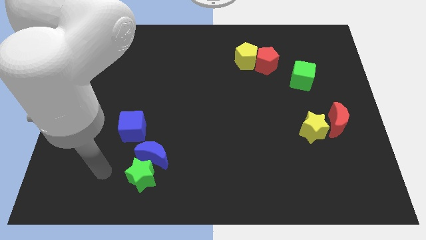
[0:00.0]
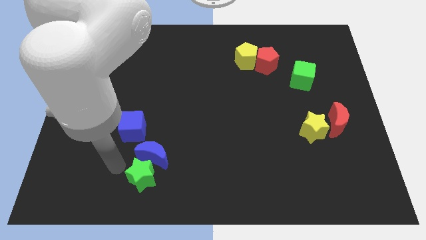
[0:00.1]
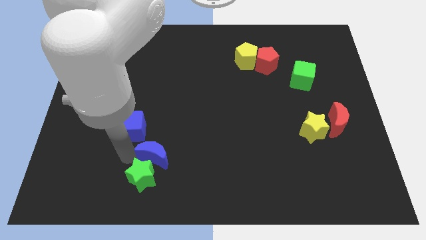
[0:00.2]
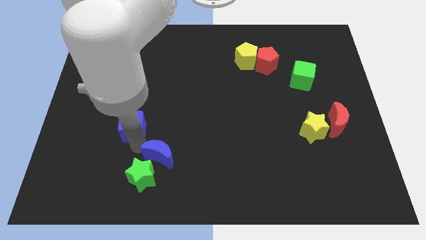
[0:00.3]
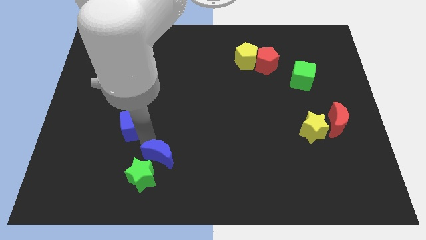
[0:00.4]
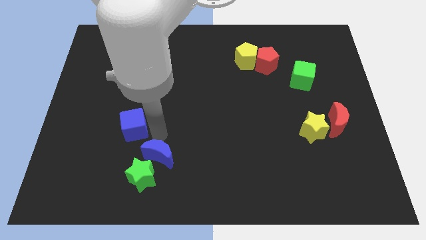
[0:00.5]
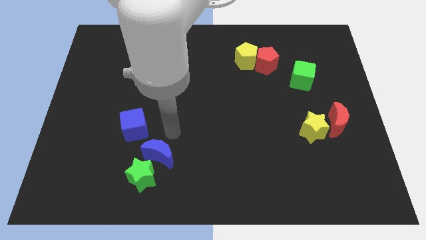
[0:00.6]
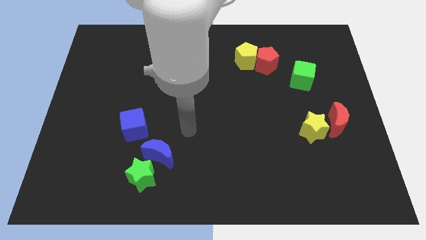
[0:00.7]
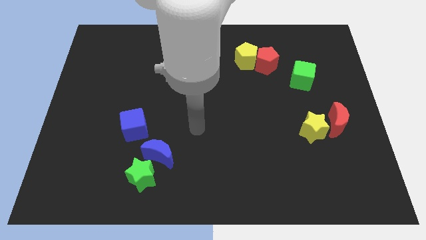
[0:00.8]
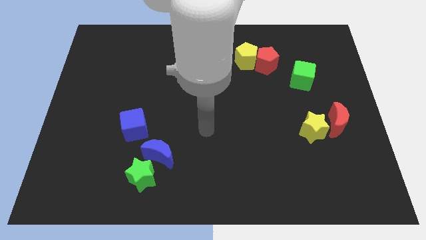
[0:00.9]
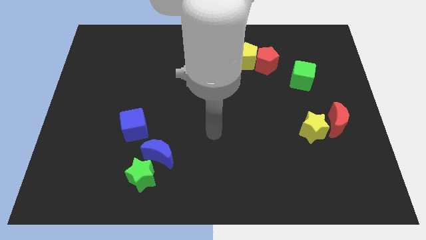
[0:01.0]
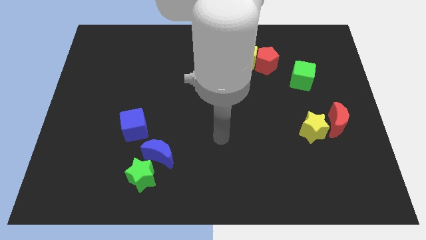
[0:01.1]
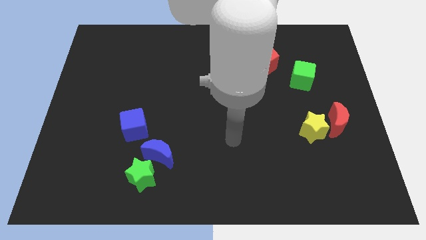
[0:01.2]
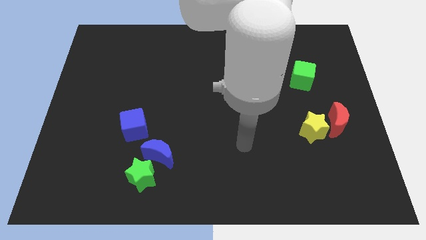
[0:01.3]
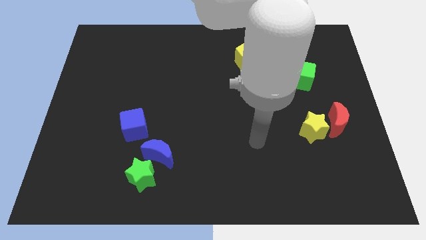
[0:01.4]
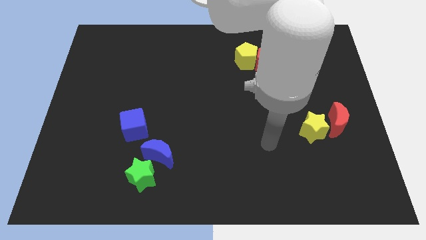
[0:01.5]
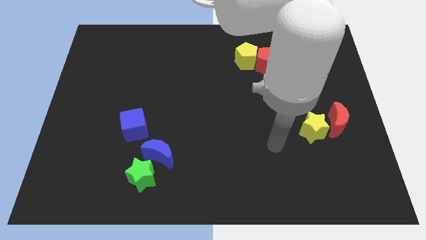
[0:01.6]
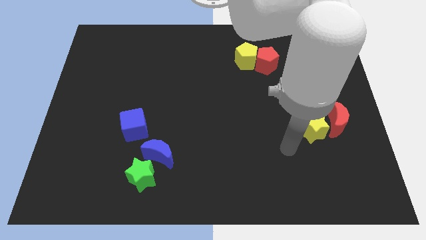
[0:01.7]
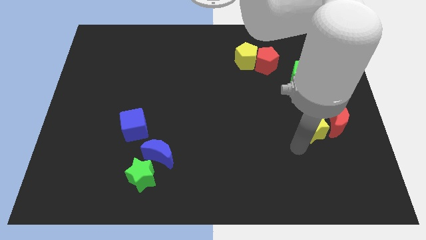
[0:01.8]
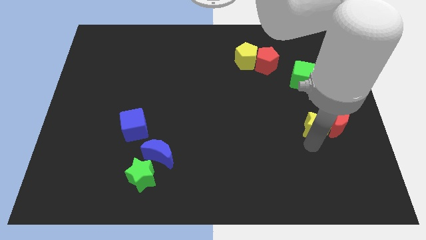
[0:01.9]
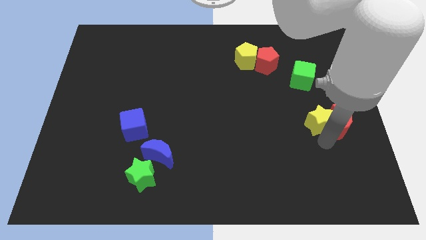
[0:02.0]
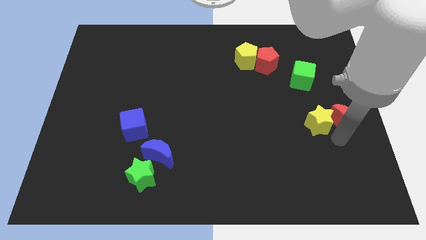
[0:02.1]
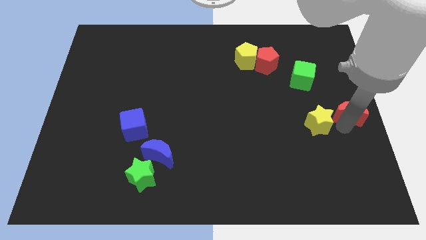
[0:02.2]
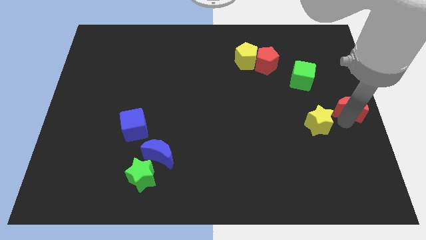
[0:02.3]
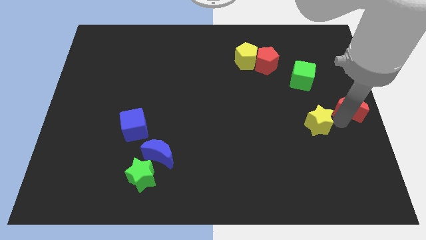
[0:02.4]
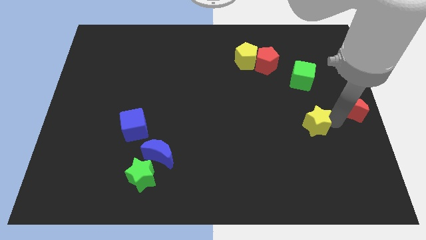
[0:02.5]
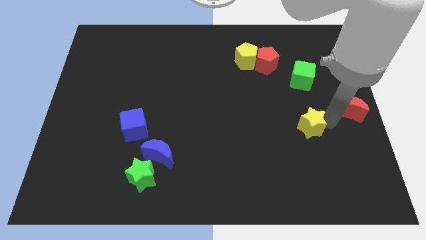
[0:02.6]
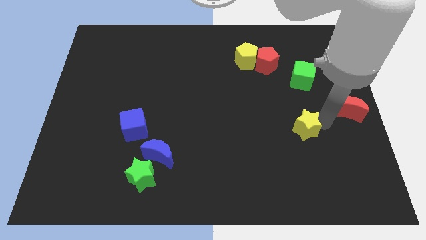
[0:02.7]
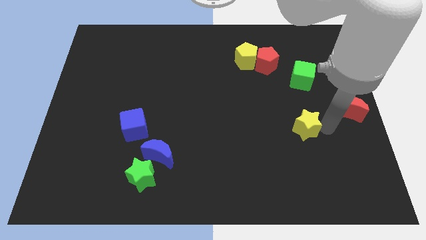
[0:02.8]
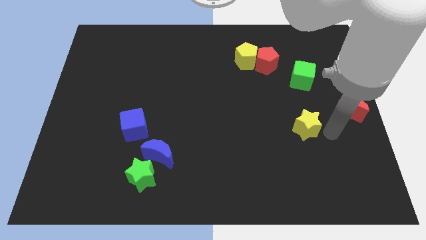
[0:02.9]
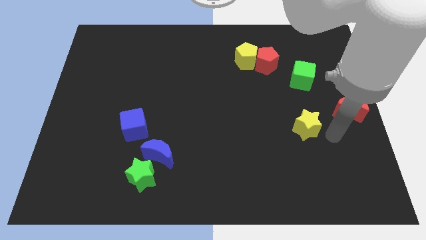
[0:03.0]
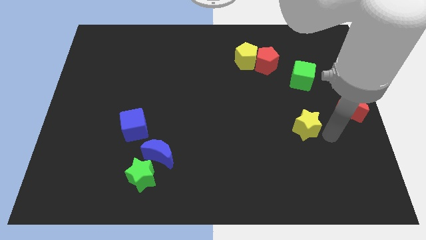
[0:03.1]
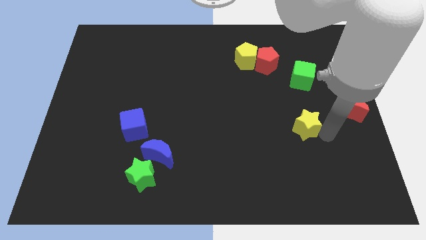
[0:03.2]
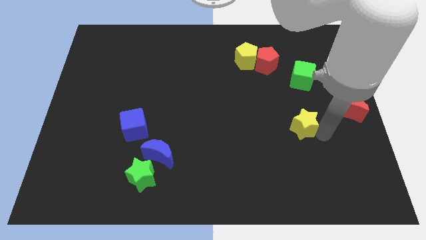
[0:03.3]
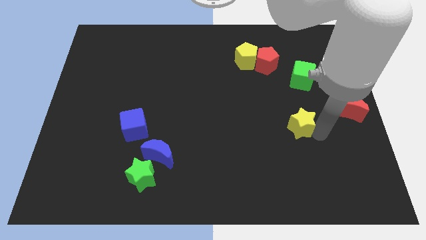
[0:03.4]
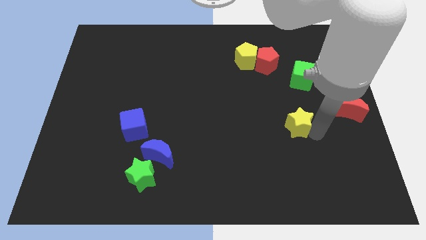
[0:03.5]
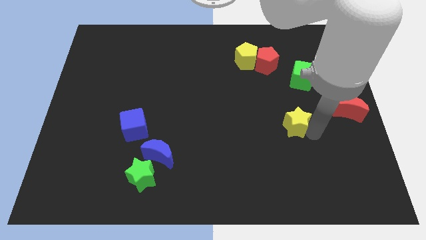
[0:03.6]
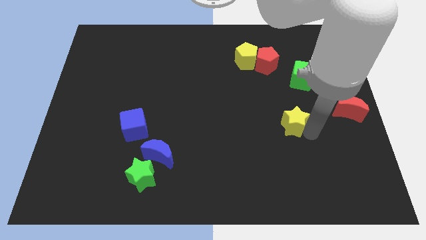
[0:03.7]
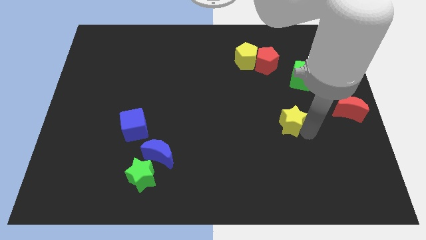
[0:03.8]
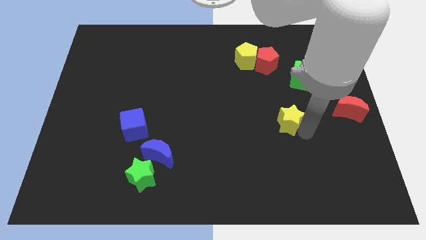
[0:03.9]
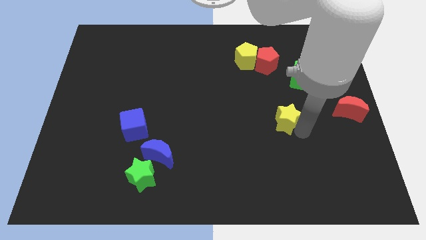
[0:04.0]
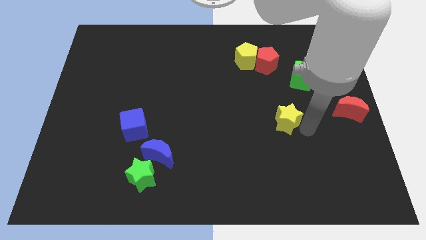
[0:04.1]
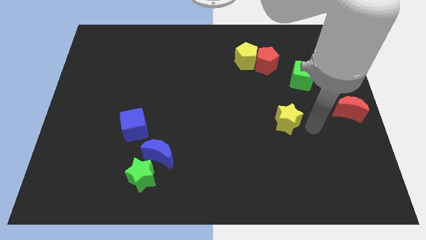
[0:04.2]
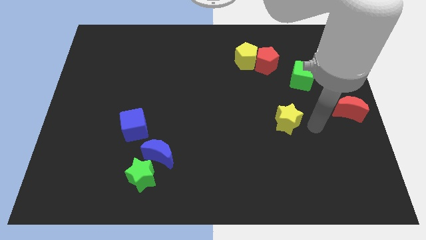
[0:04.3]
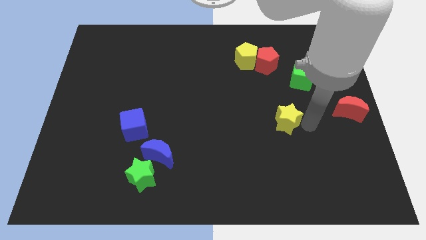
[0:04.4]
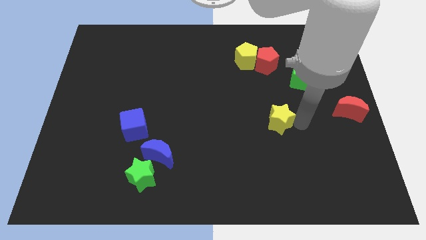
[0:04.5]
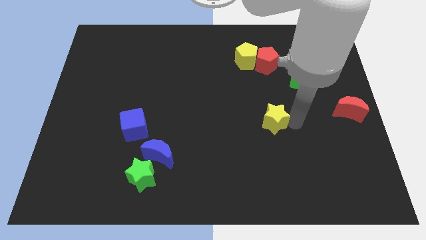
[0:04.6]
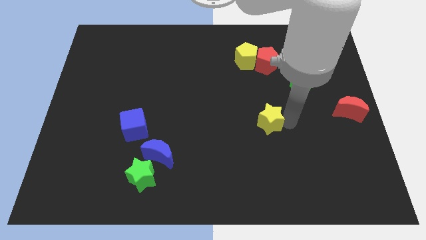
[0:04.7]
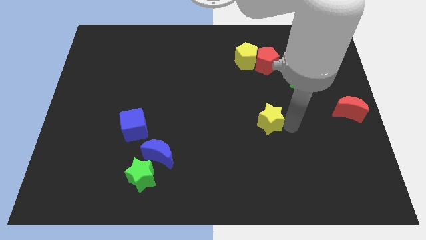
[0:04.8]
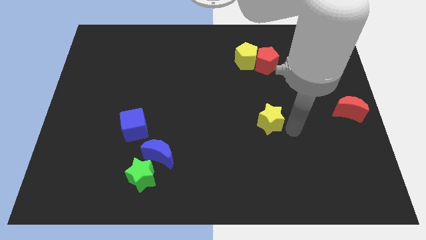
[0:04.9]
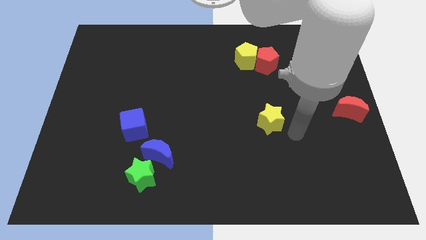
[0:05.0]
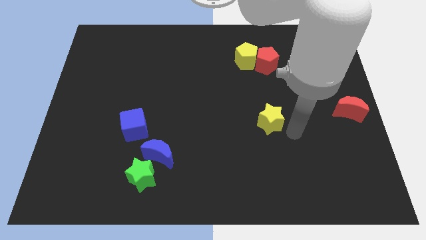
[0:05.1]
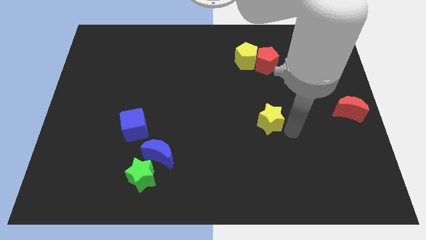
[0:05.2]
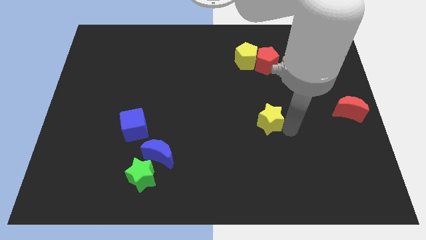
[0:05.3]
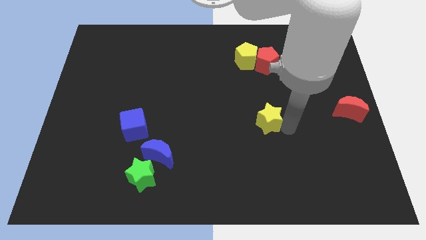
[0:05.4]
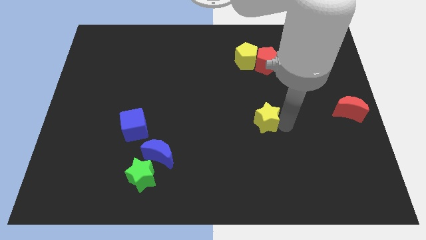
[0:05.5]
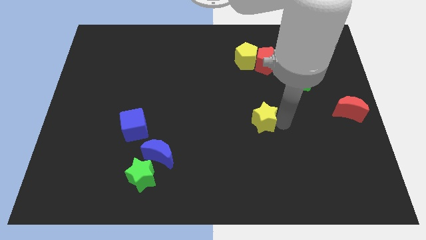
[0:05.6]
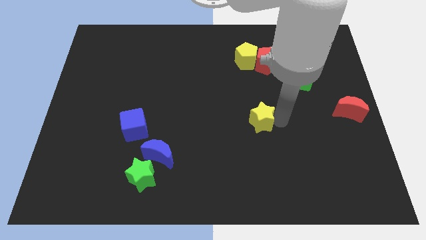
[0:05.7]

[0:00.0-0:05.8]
put the yellow star to the center of the board

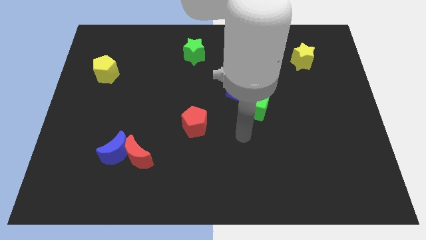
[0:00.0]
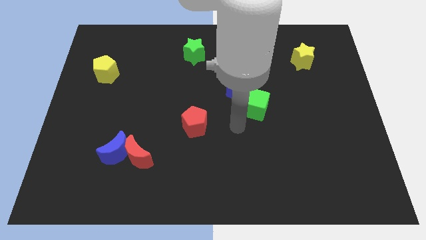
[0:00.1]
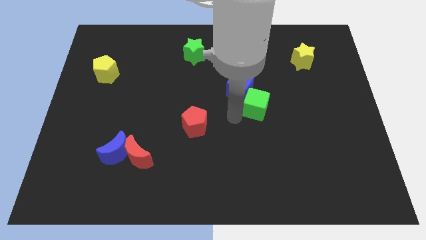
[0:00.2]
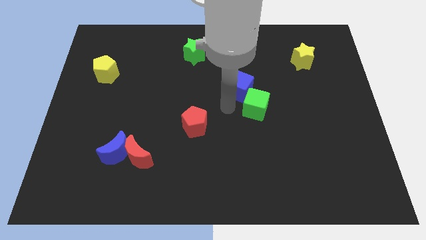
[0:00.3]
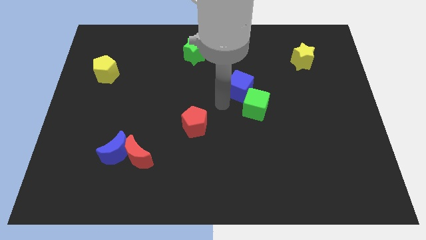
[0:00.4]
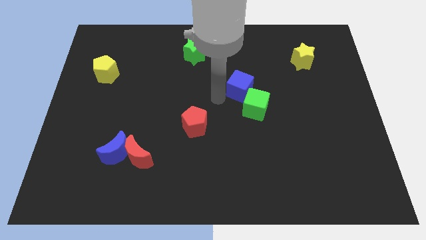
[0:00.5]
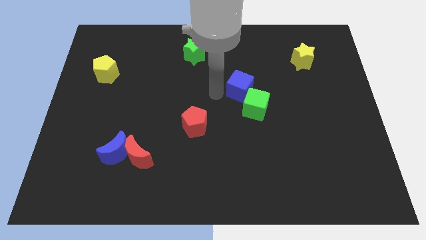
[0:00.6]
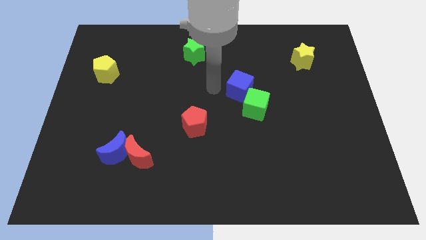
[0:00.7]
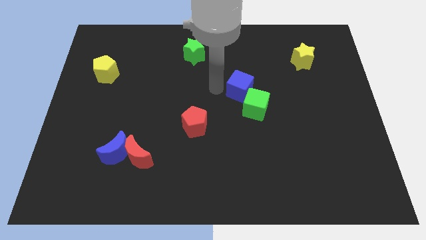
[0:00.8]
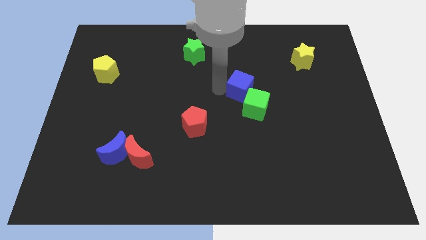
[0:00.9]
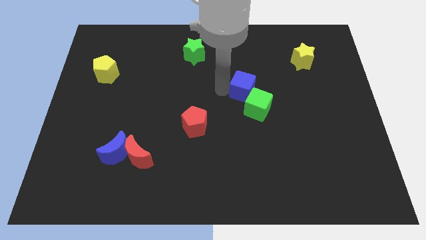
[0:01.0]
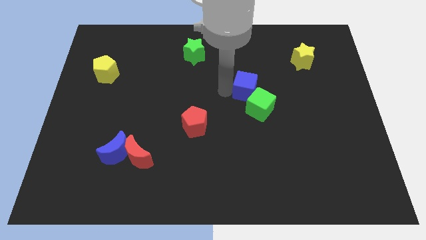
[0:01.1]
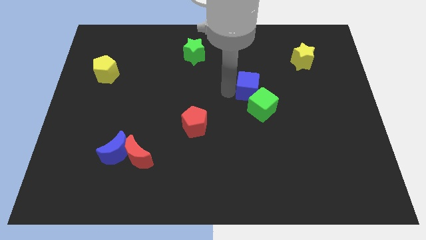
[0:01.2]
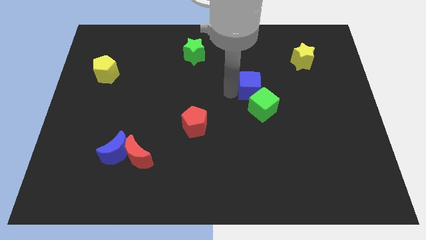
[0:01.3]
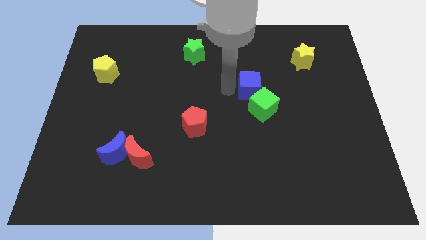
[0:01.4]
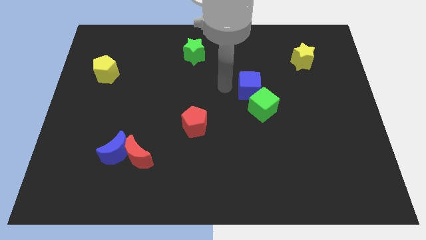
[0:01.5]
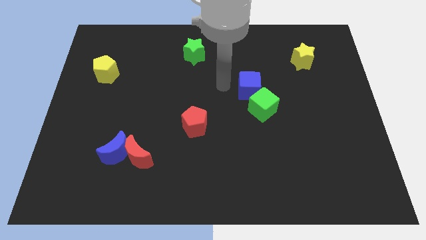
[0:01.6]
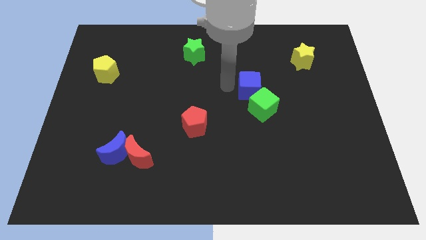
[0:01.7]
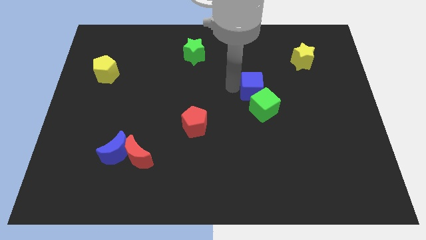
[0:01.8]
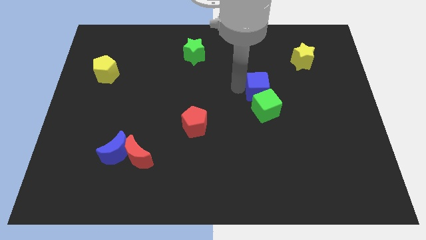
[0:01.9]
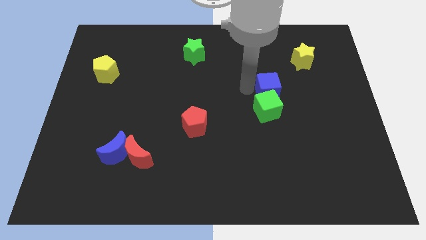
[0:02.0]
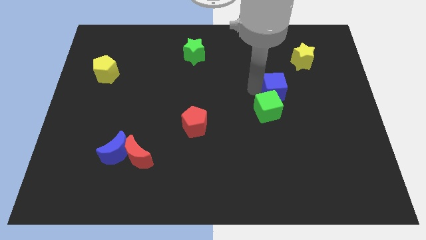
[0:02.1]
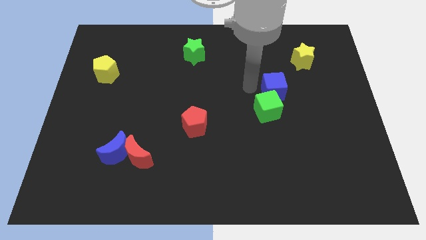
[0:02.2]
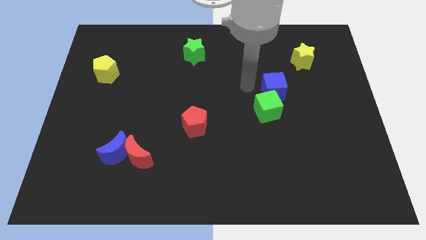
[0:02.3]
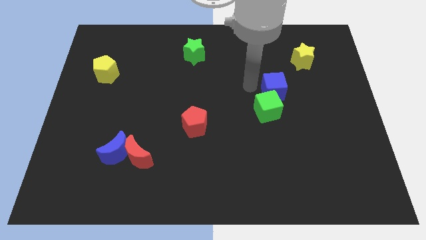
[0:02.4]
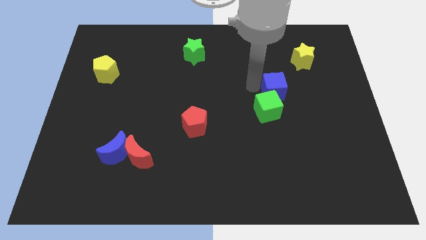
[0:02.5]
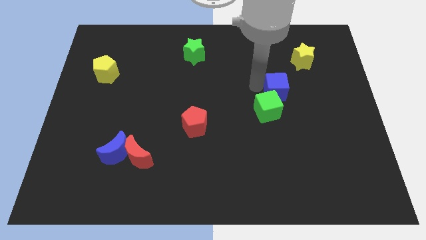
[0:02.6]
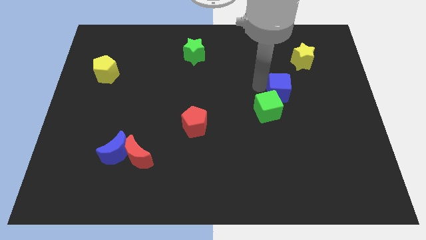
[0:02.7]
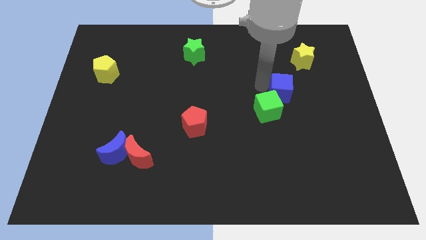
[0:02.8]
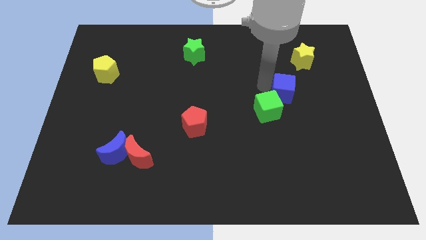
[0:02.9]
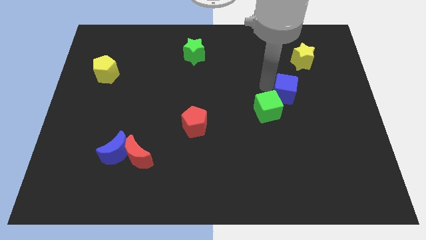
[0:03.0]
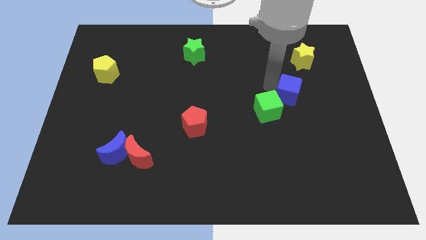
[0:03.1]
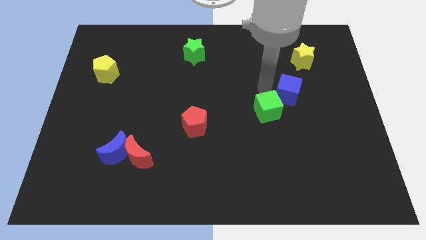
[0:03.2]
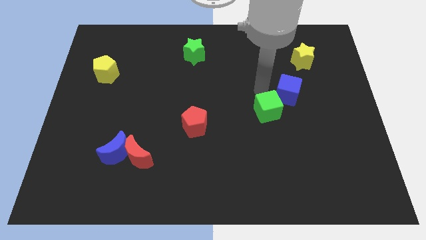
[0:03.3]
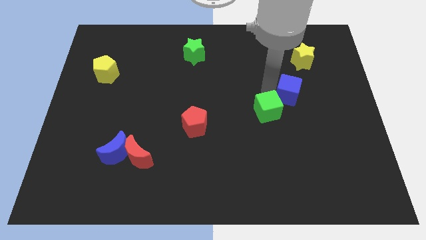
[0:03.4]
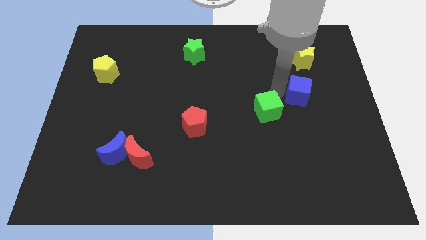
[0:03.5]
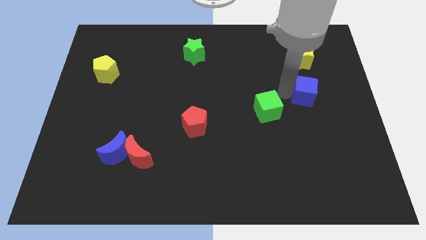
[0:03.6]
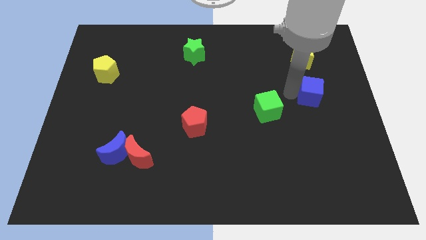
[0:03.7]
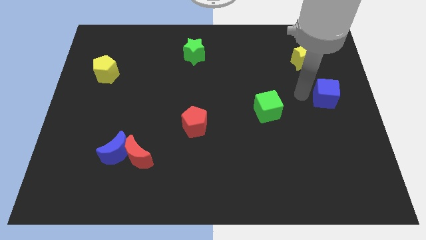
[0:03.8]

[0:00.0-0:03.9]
move the blue cube to the center right
